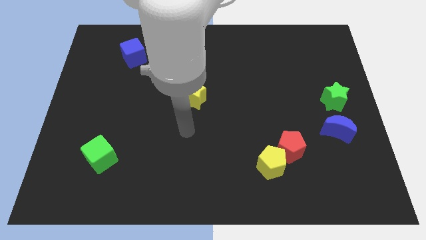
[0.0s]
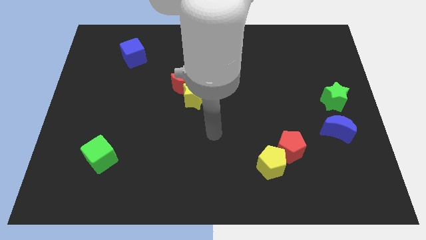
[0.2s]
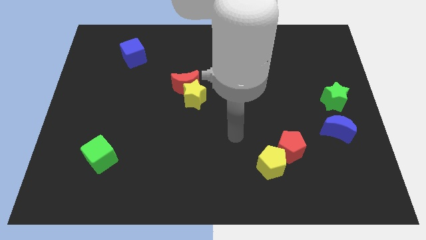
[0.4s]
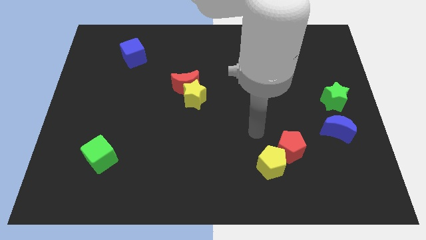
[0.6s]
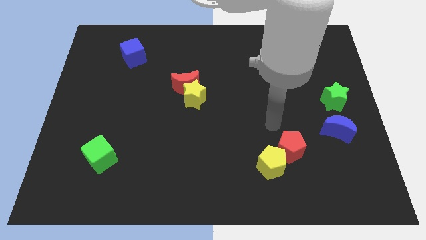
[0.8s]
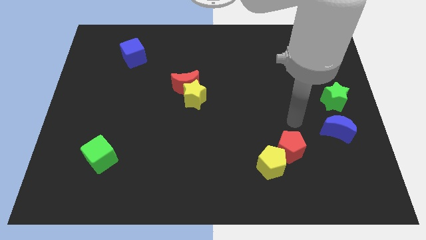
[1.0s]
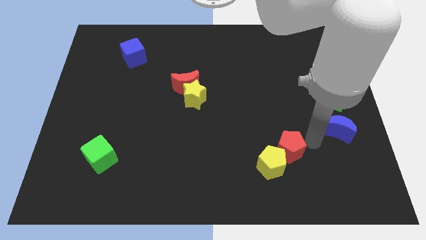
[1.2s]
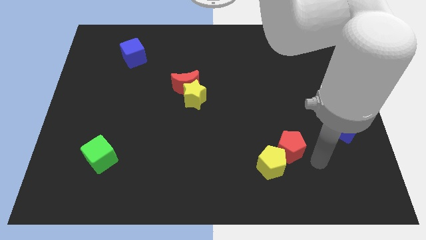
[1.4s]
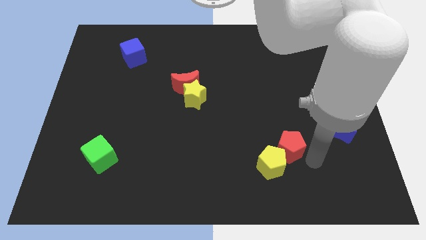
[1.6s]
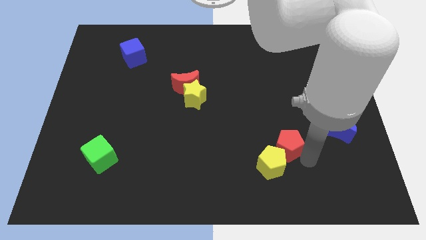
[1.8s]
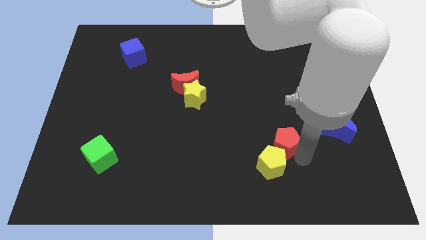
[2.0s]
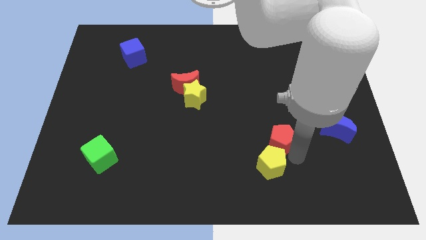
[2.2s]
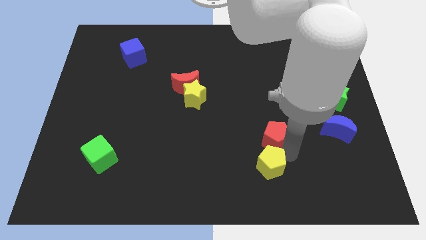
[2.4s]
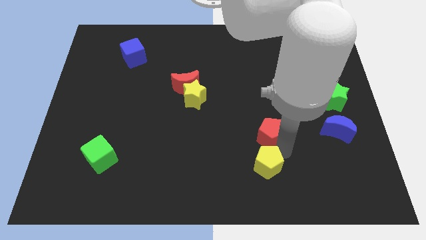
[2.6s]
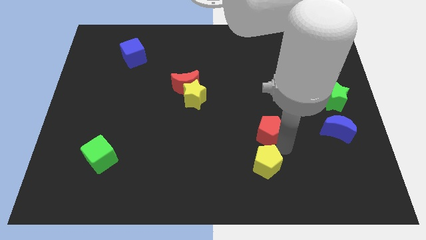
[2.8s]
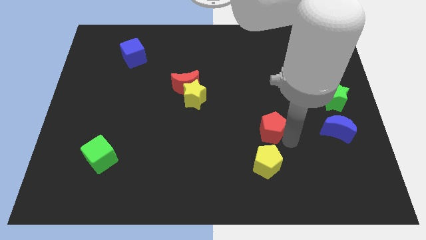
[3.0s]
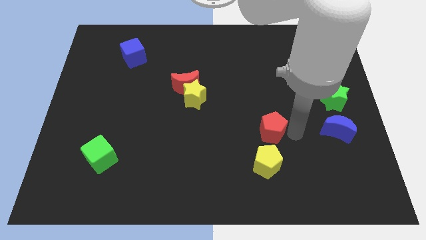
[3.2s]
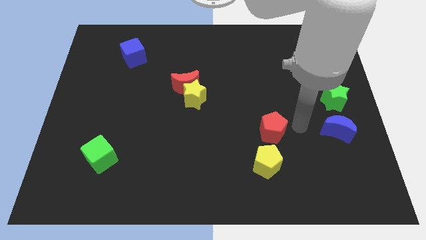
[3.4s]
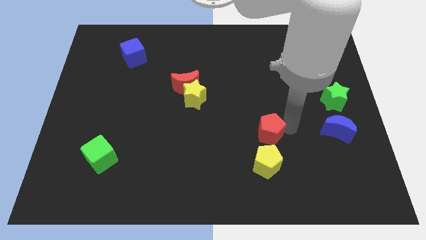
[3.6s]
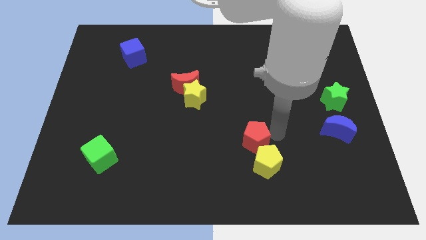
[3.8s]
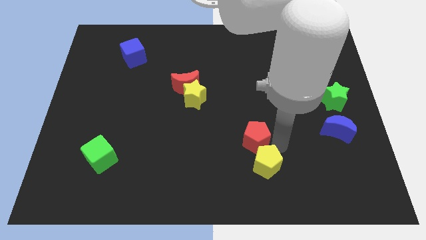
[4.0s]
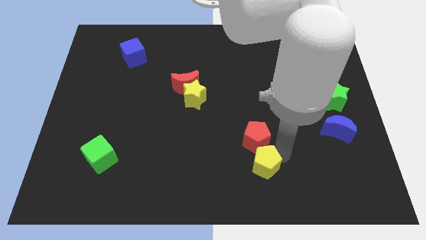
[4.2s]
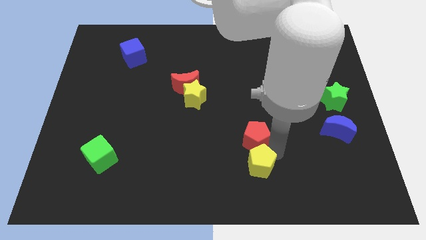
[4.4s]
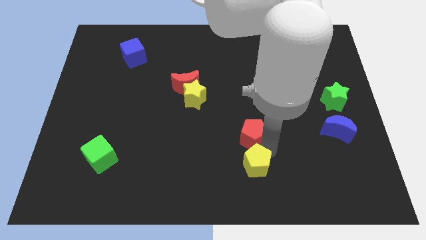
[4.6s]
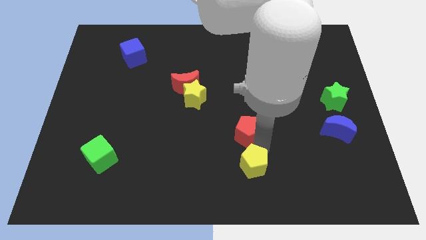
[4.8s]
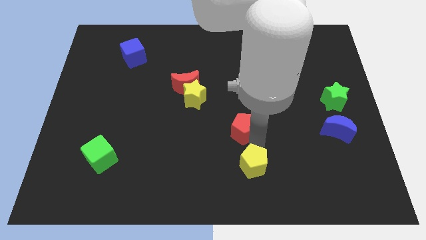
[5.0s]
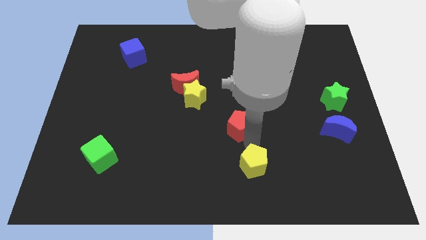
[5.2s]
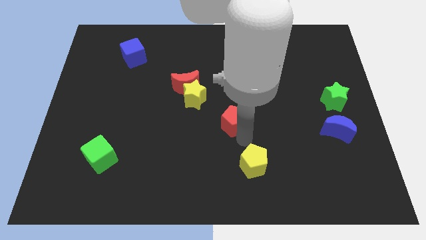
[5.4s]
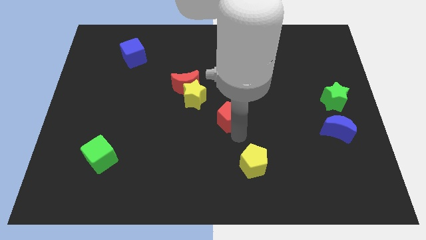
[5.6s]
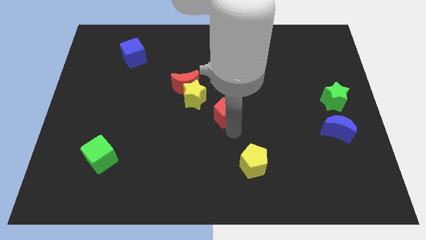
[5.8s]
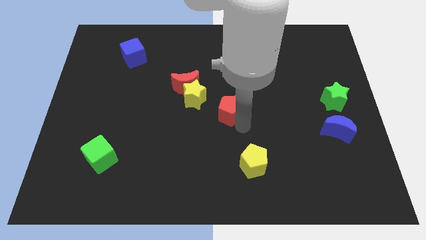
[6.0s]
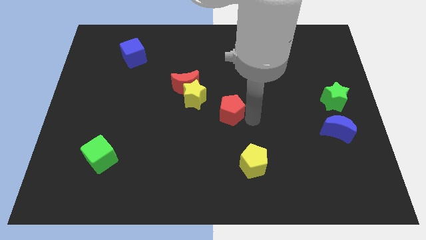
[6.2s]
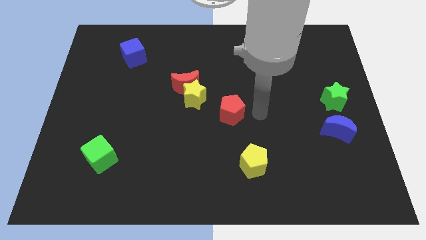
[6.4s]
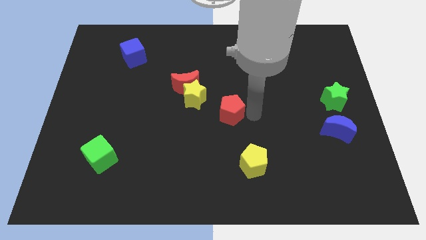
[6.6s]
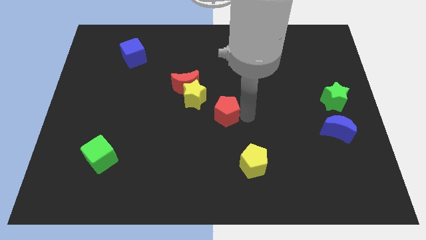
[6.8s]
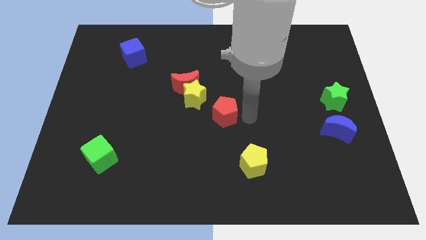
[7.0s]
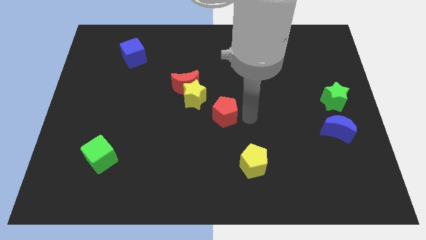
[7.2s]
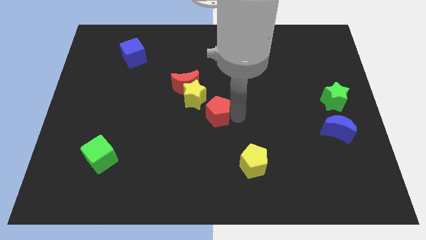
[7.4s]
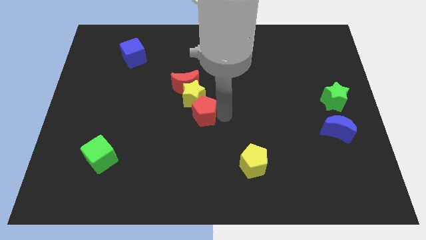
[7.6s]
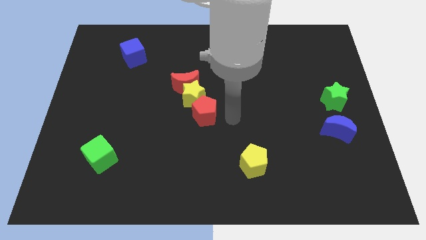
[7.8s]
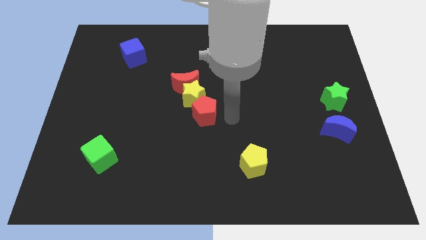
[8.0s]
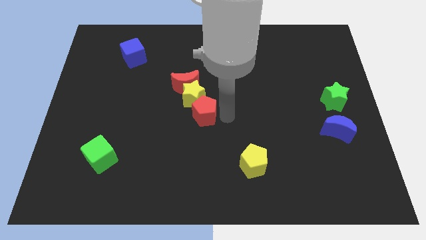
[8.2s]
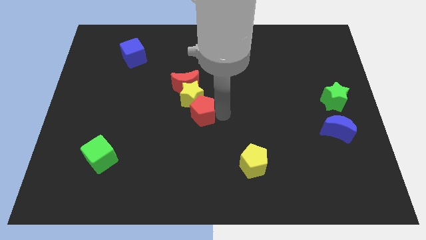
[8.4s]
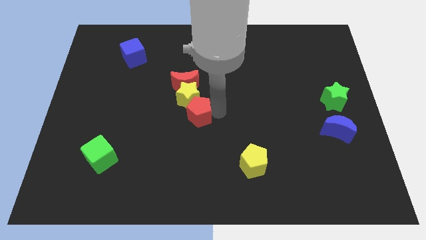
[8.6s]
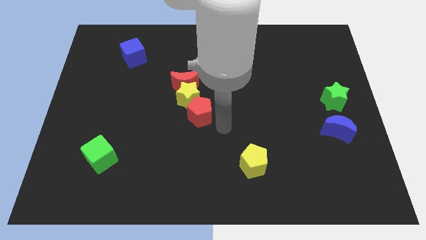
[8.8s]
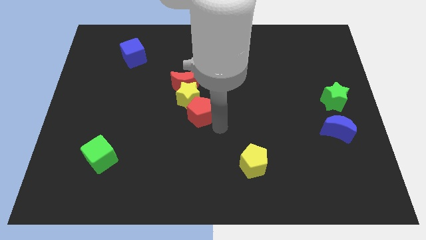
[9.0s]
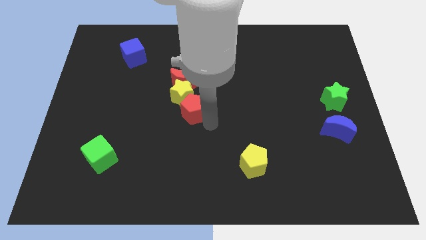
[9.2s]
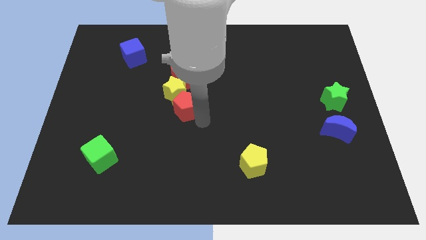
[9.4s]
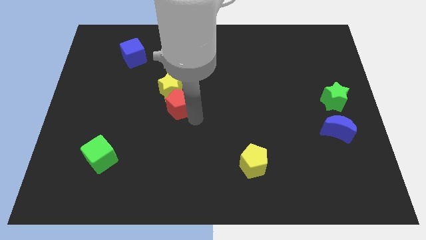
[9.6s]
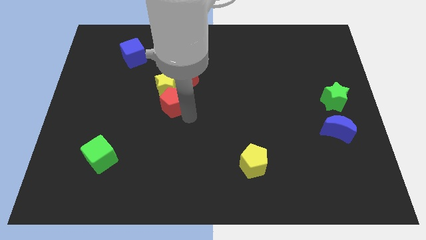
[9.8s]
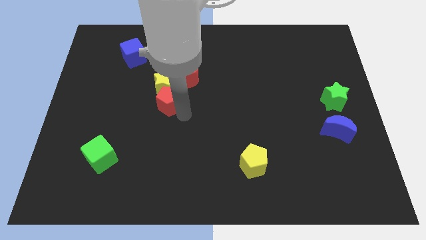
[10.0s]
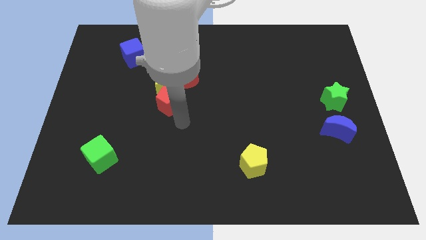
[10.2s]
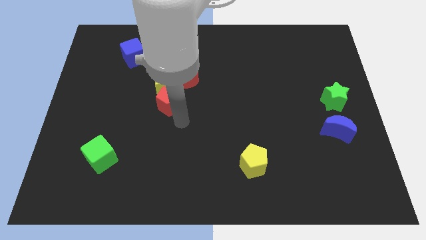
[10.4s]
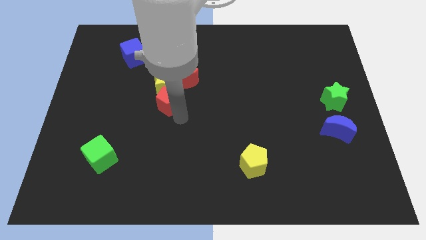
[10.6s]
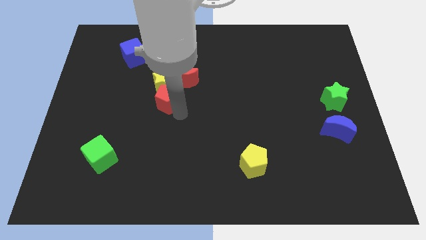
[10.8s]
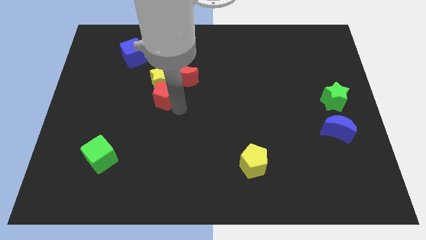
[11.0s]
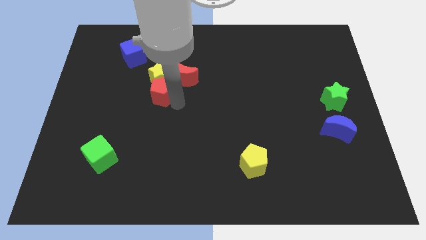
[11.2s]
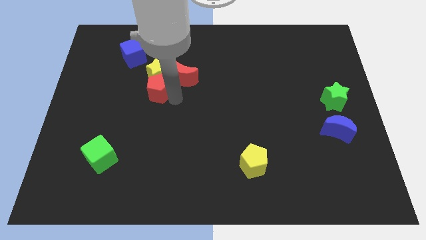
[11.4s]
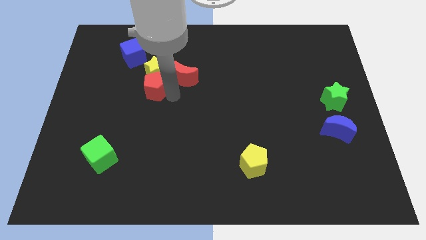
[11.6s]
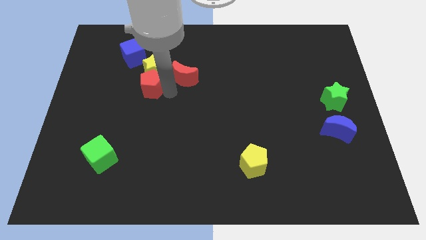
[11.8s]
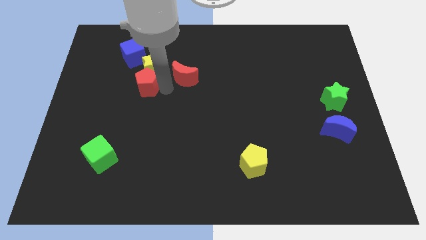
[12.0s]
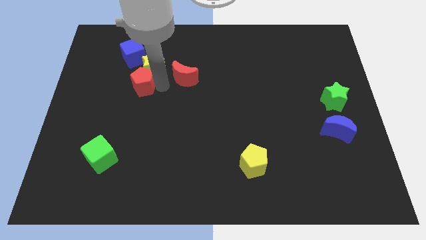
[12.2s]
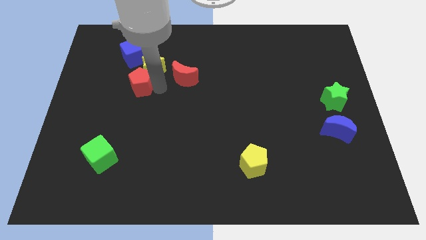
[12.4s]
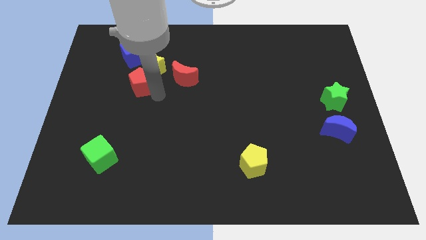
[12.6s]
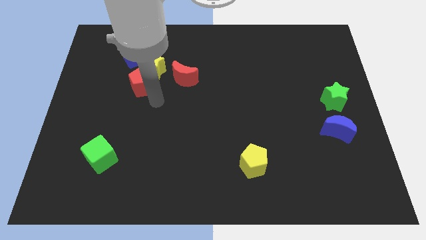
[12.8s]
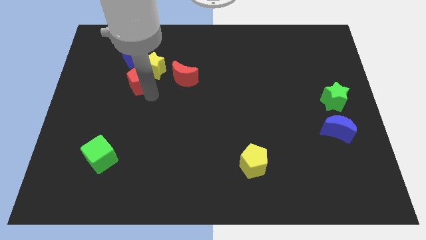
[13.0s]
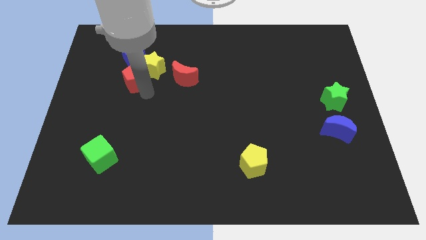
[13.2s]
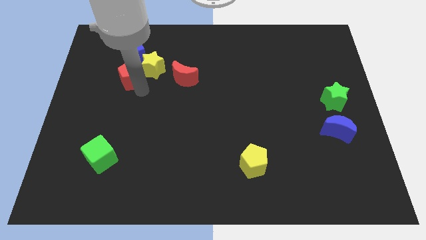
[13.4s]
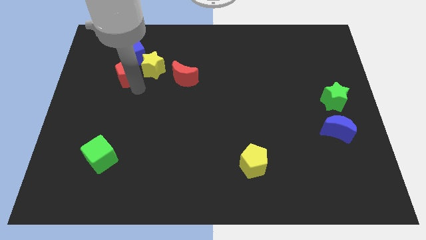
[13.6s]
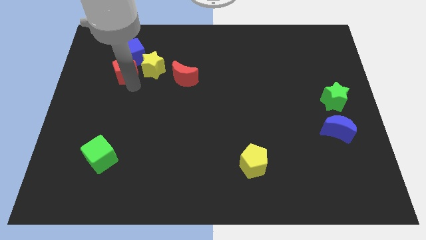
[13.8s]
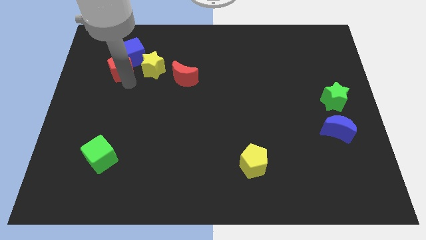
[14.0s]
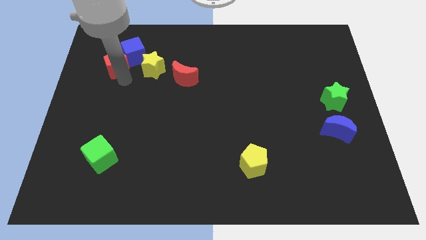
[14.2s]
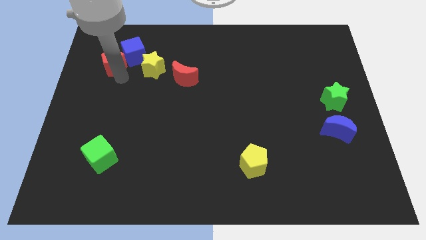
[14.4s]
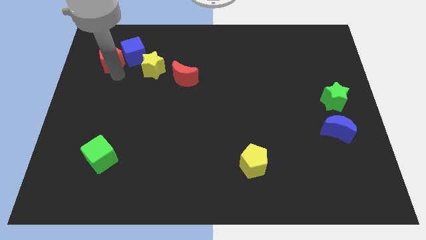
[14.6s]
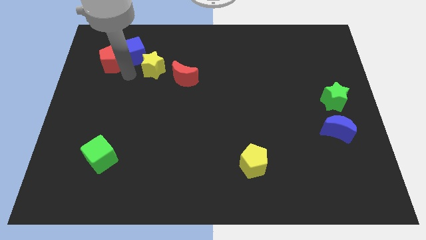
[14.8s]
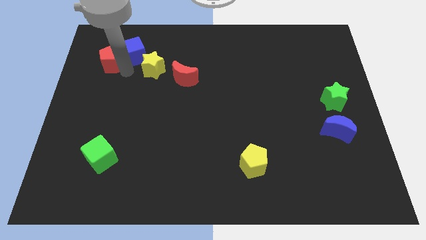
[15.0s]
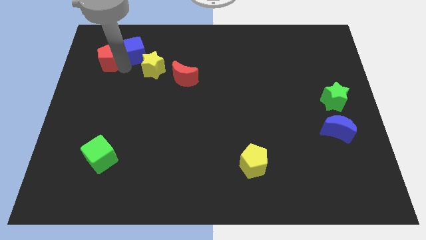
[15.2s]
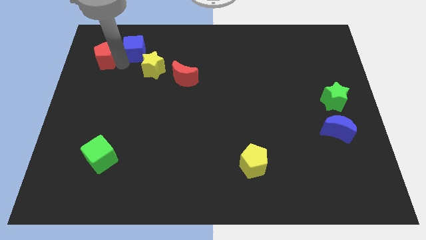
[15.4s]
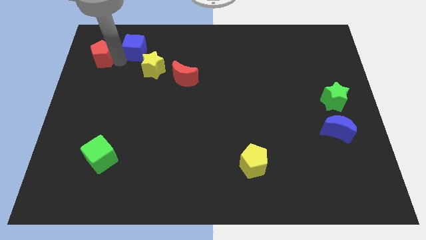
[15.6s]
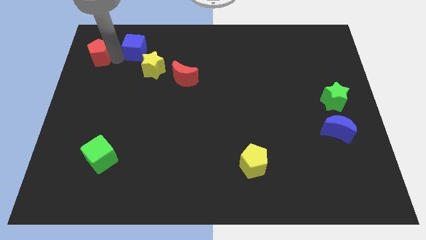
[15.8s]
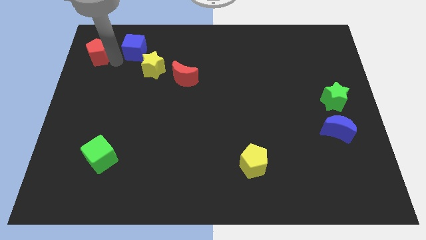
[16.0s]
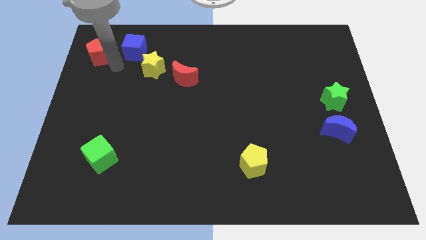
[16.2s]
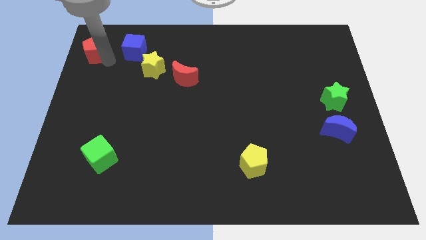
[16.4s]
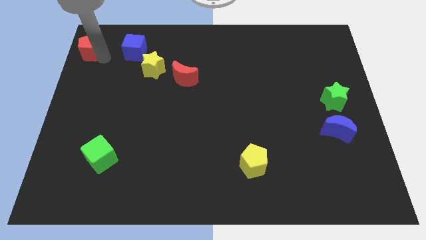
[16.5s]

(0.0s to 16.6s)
put the red pentagon to the upper left corner
